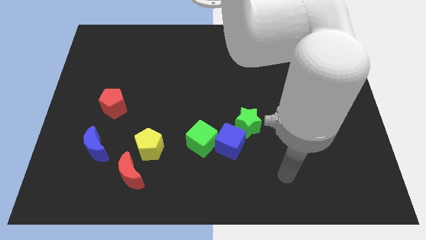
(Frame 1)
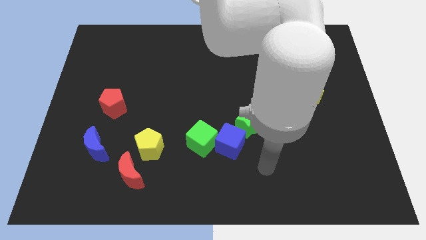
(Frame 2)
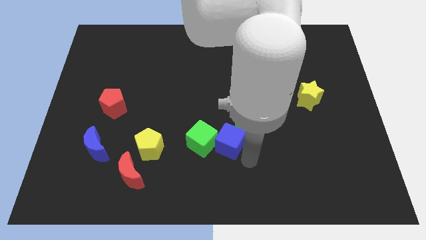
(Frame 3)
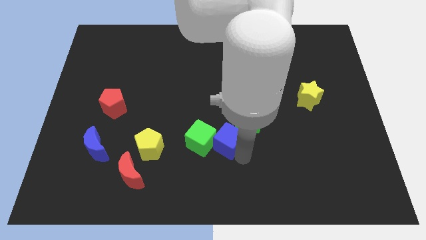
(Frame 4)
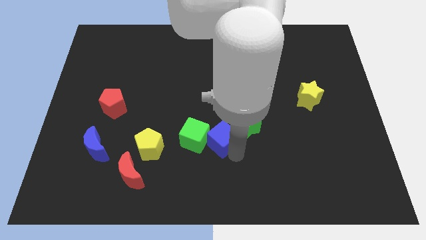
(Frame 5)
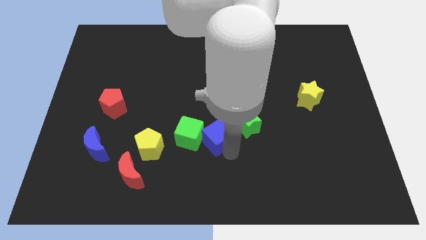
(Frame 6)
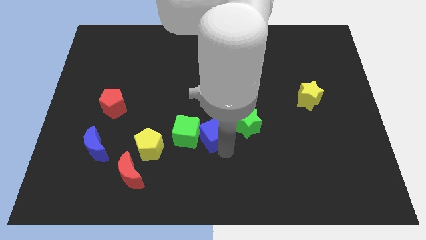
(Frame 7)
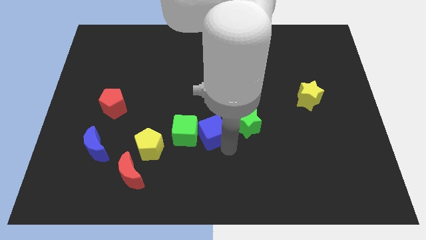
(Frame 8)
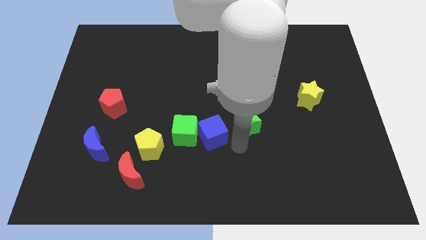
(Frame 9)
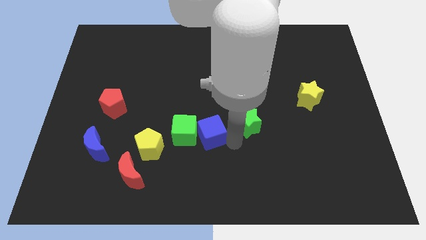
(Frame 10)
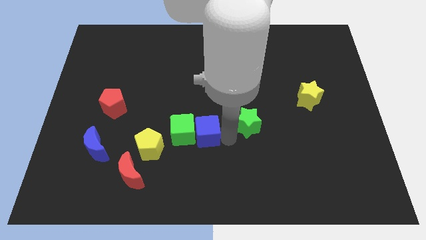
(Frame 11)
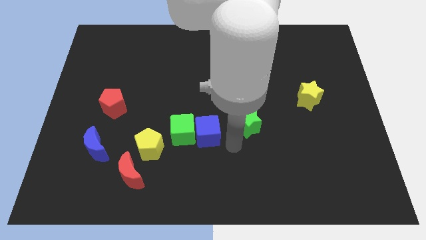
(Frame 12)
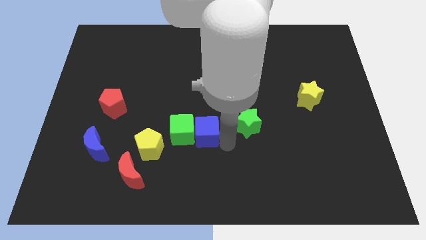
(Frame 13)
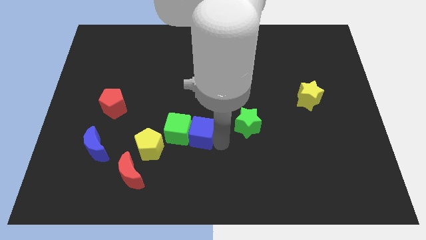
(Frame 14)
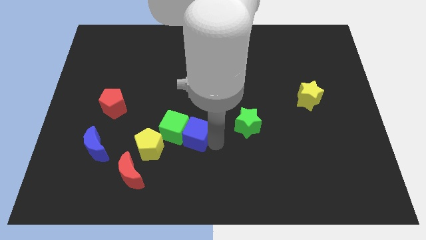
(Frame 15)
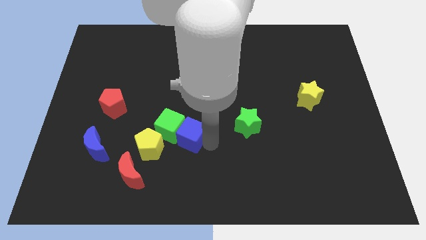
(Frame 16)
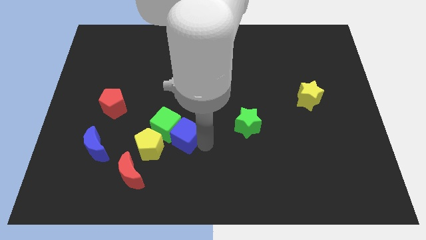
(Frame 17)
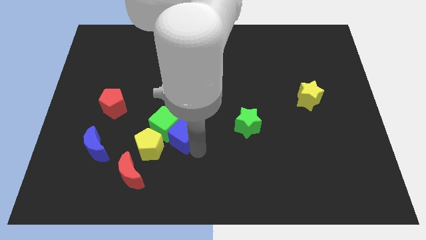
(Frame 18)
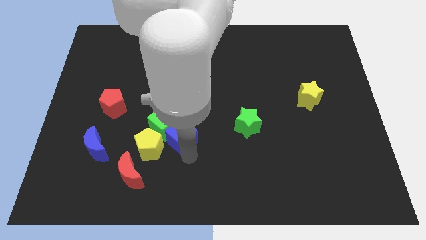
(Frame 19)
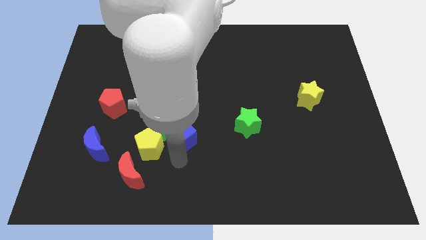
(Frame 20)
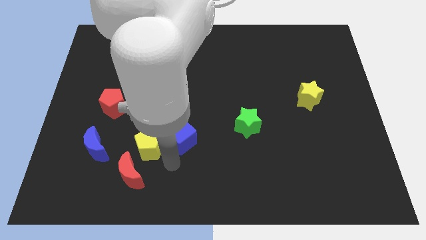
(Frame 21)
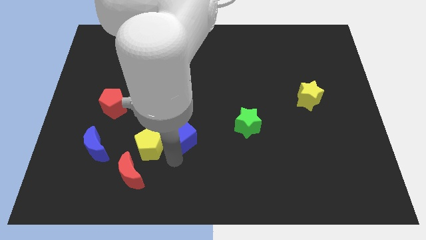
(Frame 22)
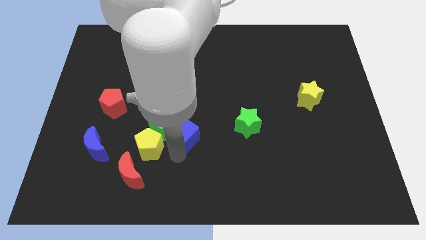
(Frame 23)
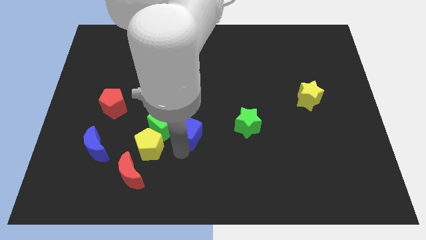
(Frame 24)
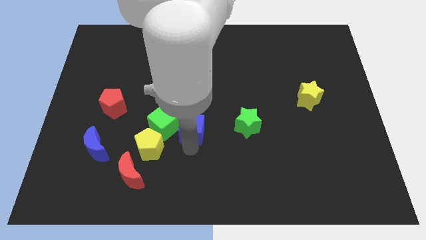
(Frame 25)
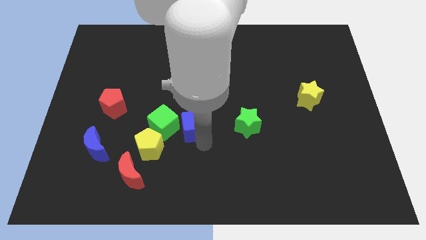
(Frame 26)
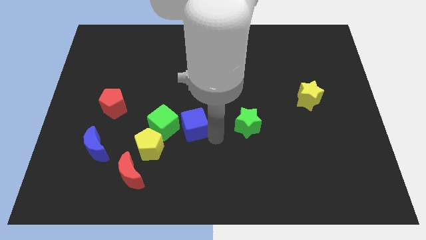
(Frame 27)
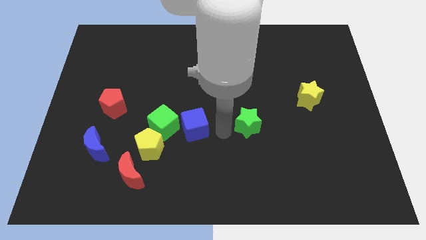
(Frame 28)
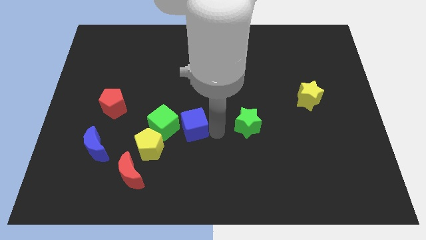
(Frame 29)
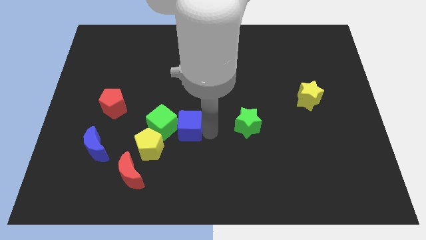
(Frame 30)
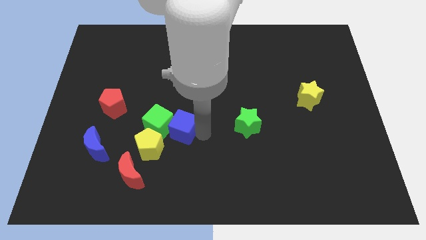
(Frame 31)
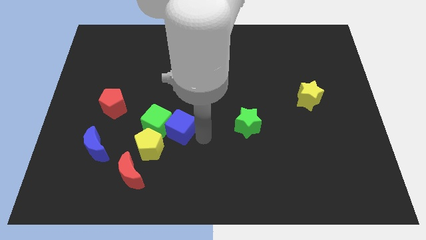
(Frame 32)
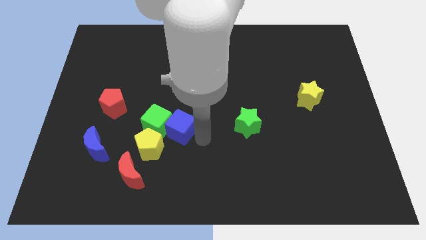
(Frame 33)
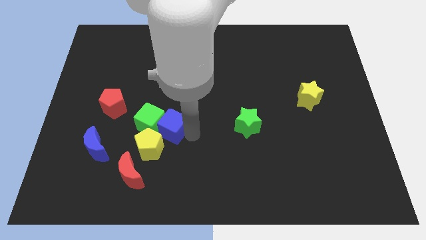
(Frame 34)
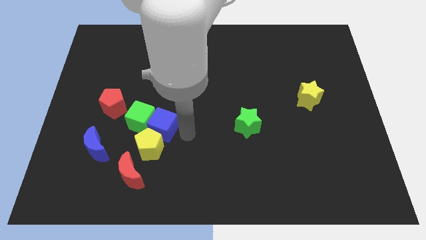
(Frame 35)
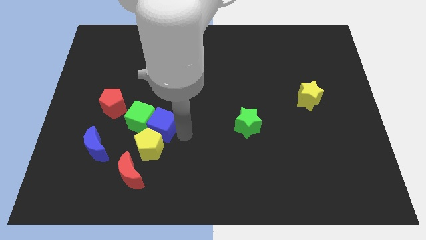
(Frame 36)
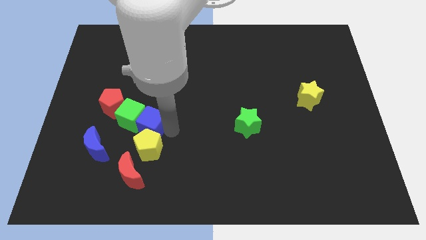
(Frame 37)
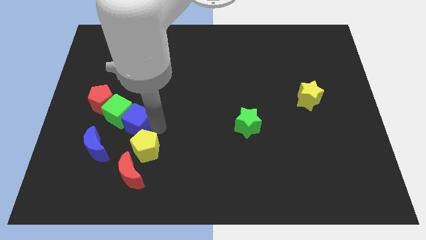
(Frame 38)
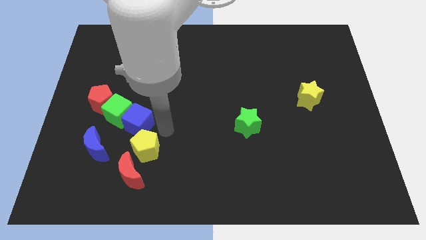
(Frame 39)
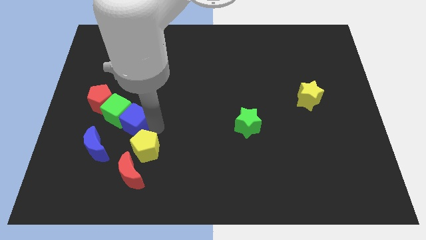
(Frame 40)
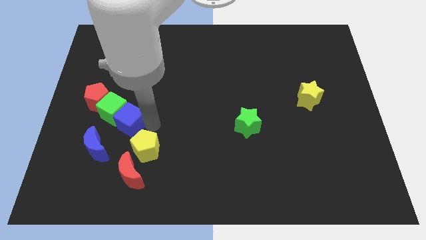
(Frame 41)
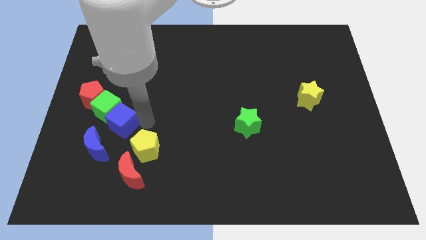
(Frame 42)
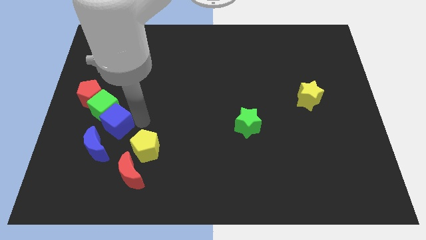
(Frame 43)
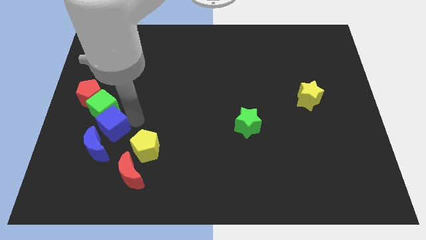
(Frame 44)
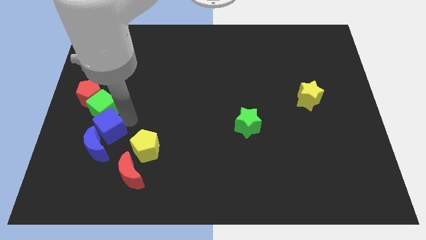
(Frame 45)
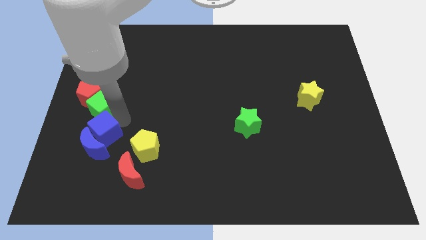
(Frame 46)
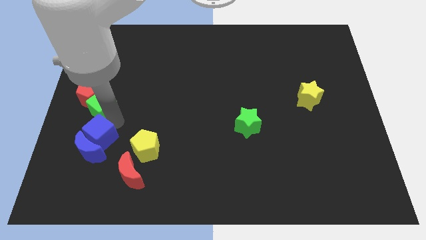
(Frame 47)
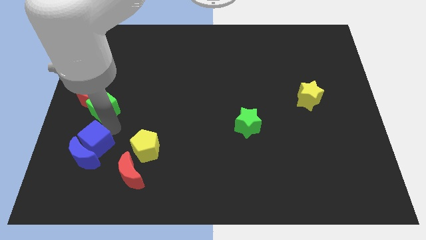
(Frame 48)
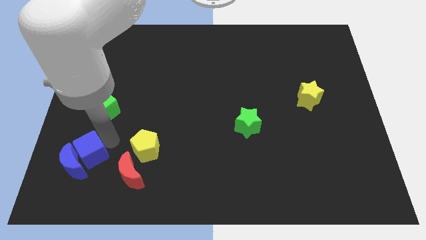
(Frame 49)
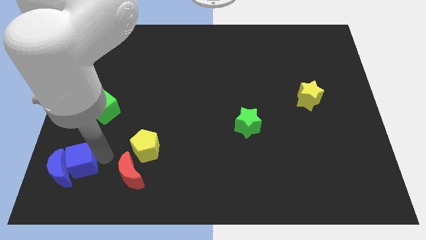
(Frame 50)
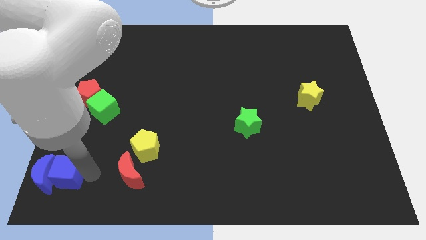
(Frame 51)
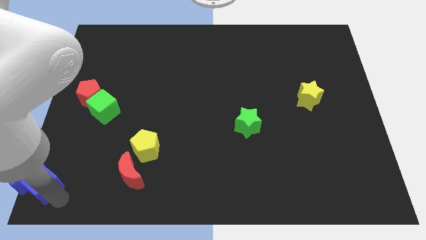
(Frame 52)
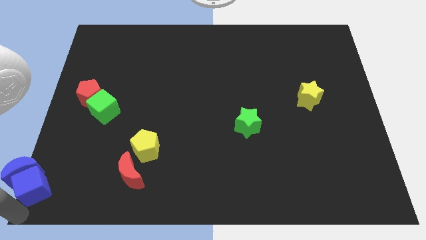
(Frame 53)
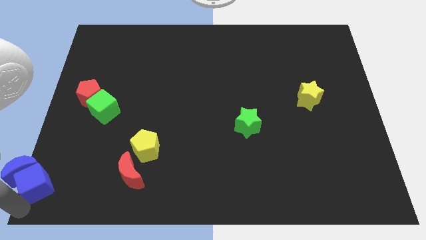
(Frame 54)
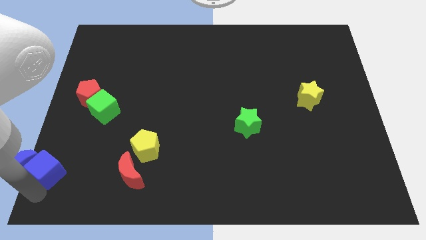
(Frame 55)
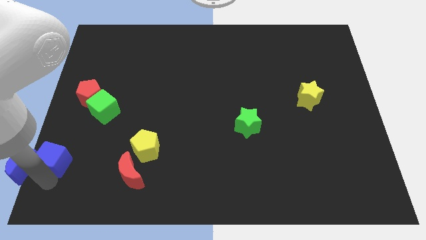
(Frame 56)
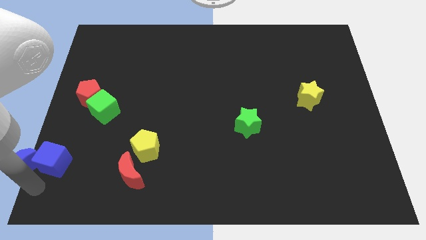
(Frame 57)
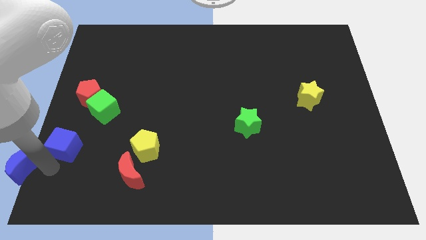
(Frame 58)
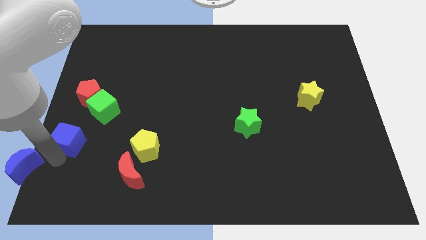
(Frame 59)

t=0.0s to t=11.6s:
push the blue cube to the left side of the board

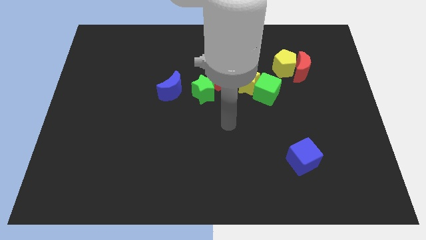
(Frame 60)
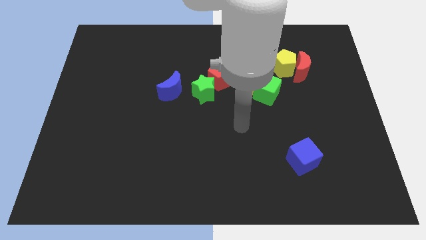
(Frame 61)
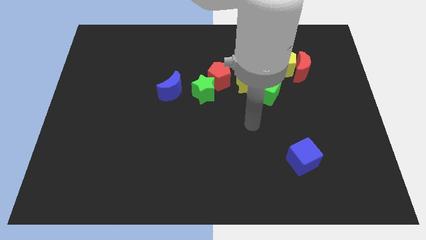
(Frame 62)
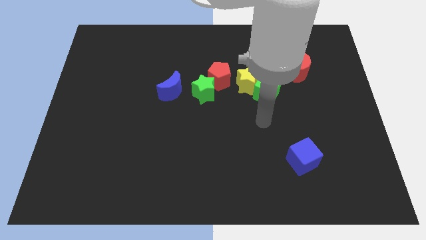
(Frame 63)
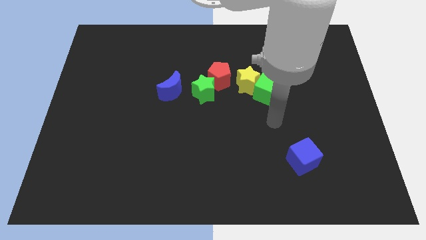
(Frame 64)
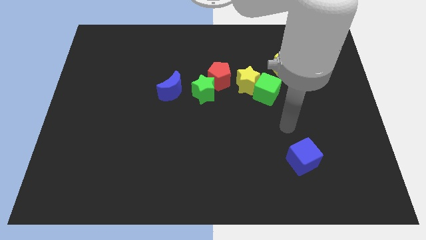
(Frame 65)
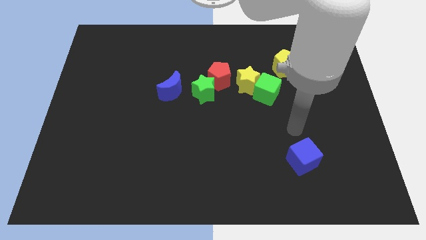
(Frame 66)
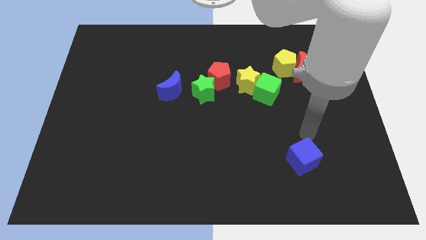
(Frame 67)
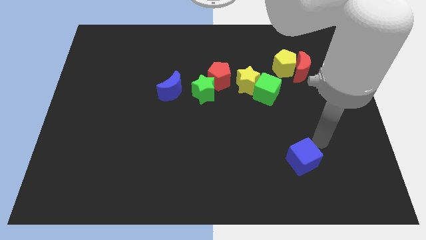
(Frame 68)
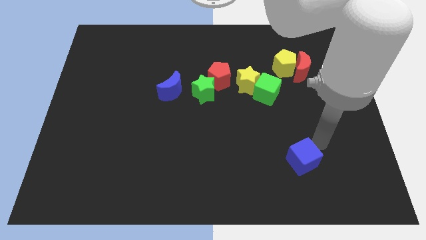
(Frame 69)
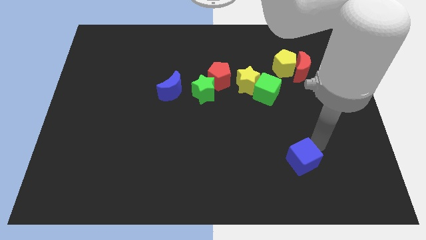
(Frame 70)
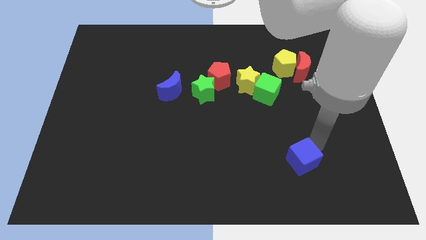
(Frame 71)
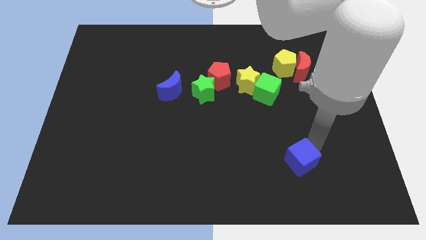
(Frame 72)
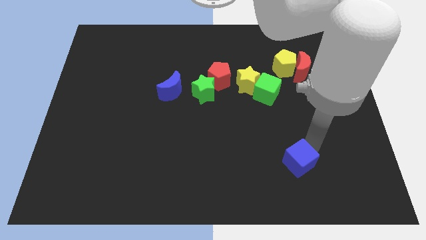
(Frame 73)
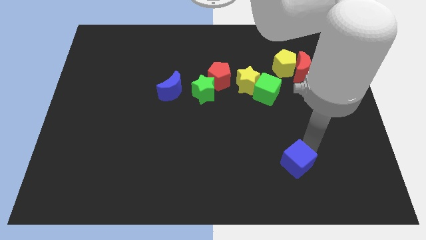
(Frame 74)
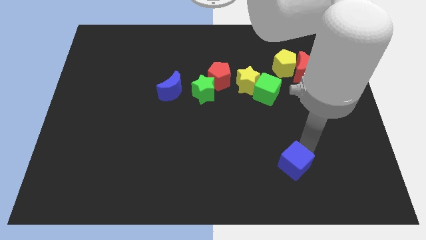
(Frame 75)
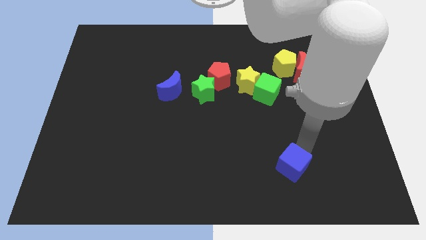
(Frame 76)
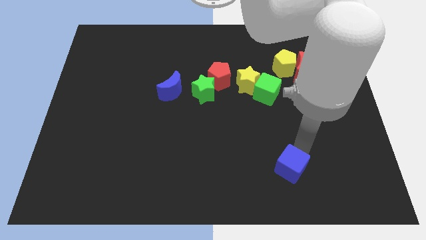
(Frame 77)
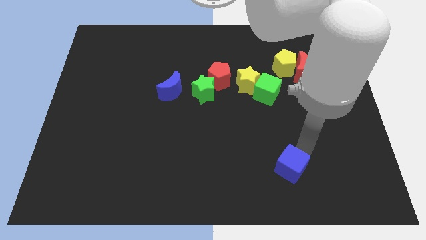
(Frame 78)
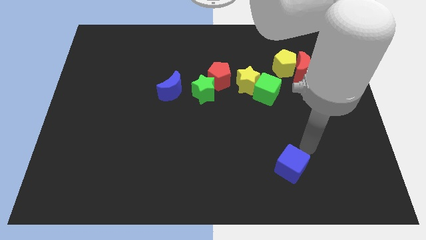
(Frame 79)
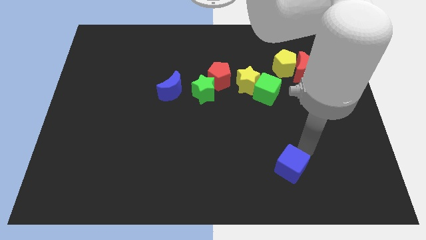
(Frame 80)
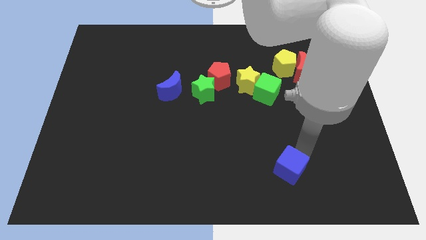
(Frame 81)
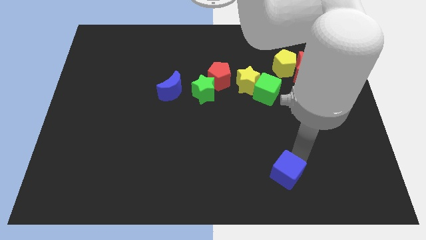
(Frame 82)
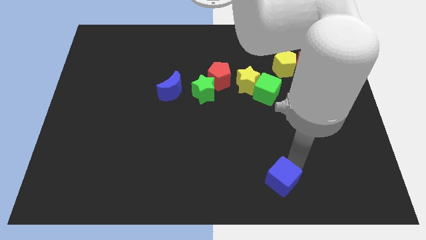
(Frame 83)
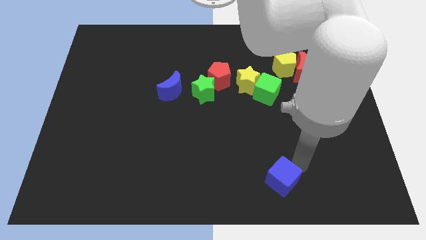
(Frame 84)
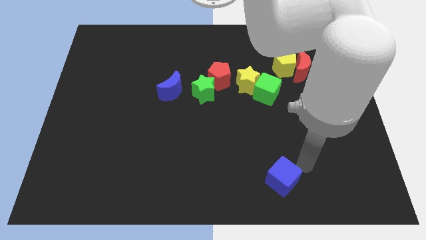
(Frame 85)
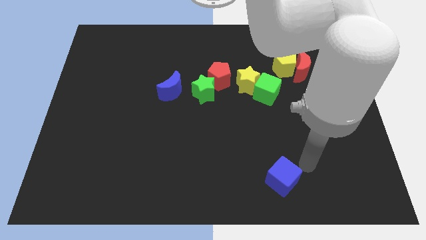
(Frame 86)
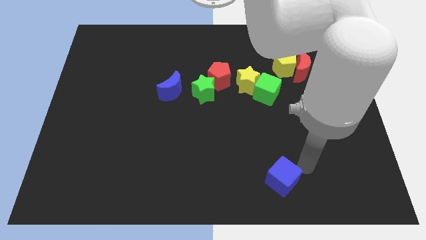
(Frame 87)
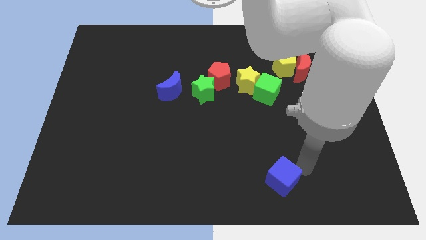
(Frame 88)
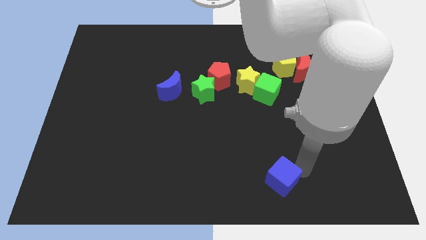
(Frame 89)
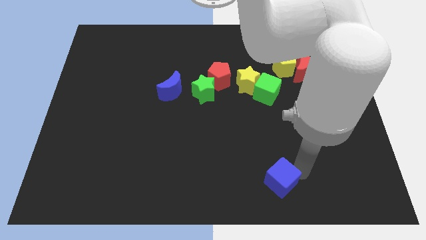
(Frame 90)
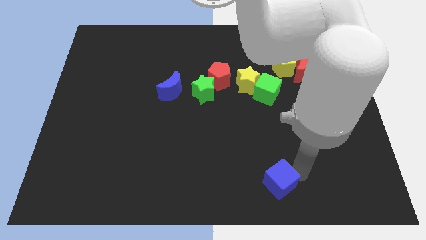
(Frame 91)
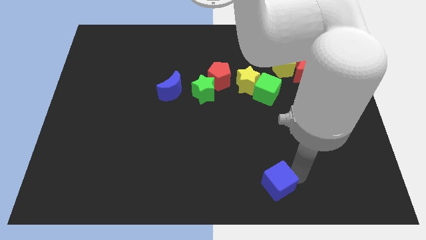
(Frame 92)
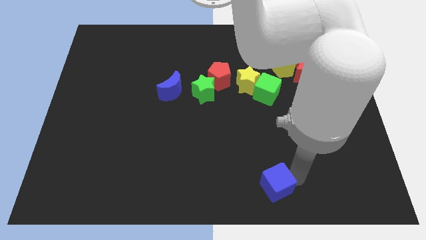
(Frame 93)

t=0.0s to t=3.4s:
put the blue cube to the bottom
